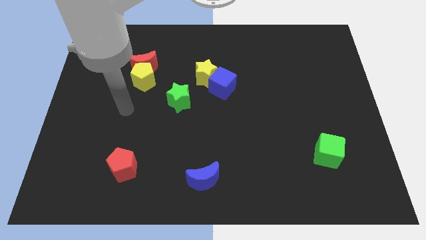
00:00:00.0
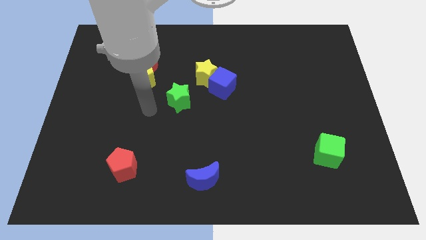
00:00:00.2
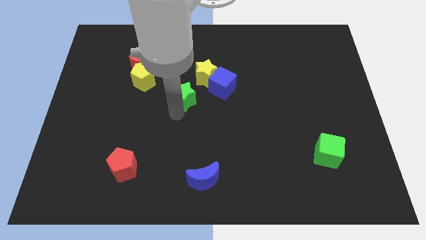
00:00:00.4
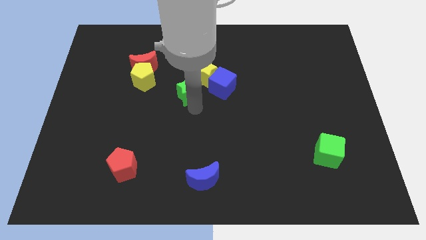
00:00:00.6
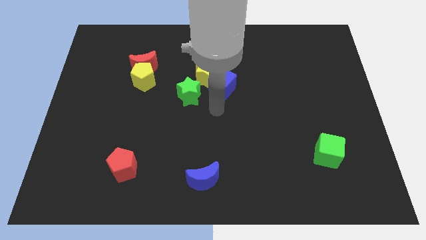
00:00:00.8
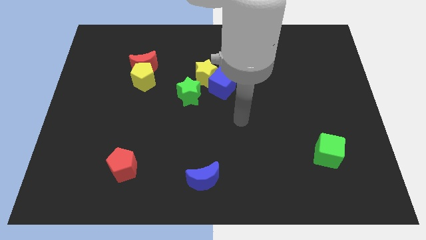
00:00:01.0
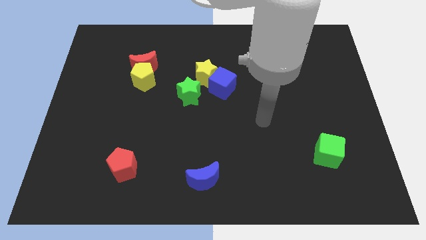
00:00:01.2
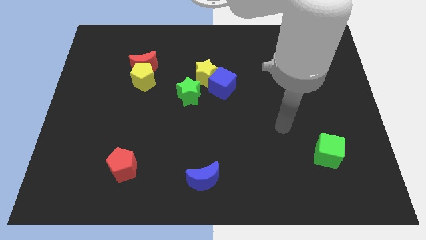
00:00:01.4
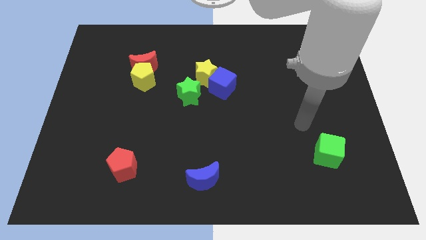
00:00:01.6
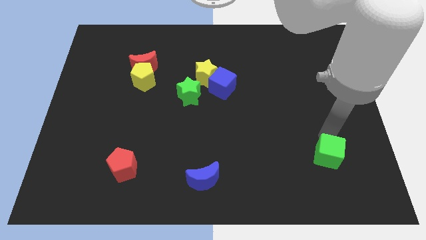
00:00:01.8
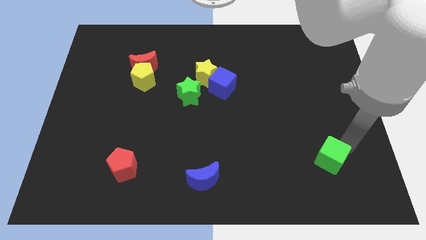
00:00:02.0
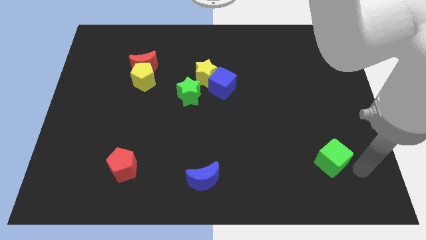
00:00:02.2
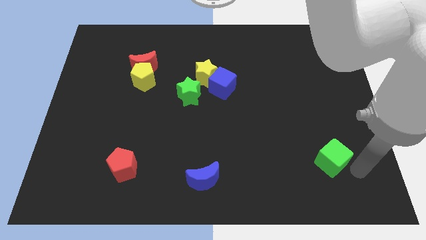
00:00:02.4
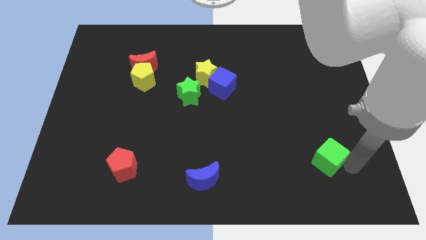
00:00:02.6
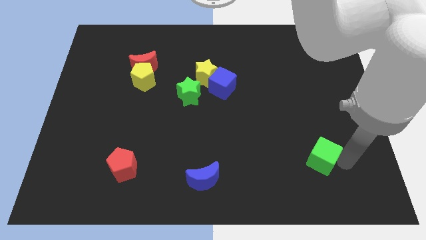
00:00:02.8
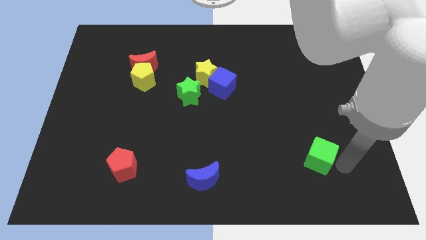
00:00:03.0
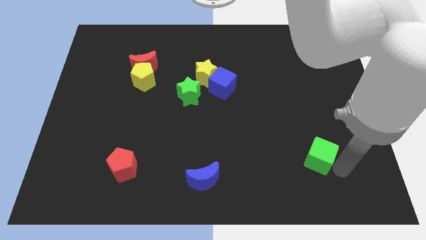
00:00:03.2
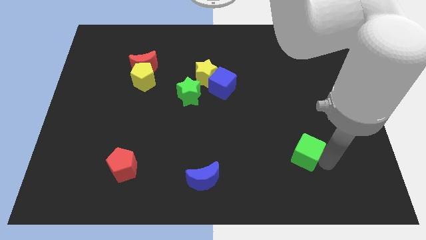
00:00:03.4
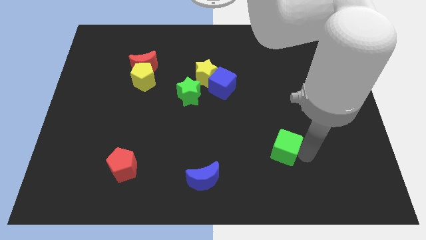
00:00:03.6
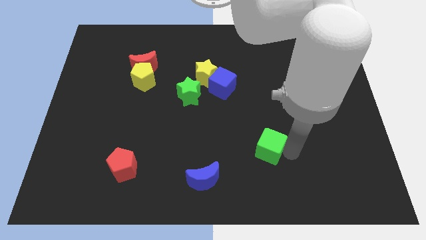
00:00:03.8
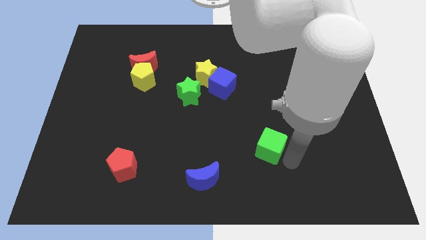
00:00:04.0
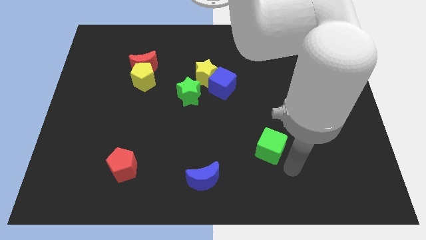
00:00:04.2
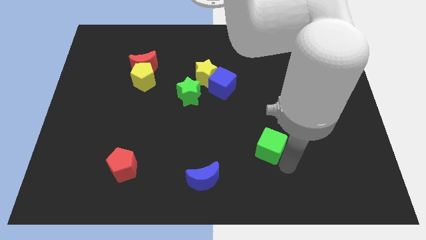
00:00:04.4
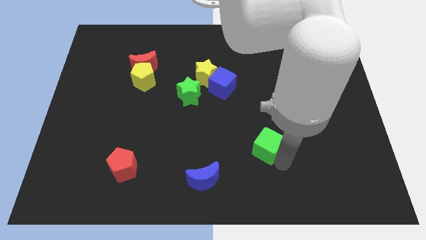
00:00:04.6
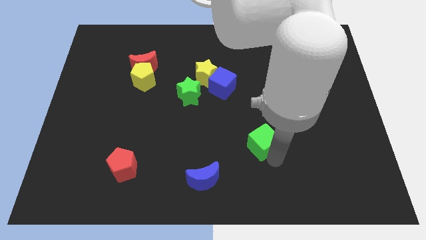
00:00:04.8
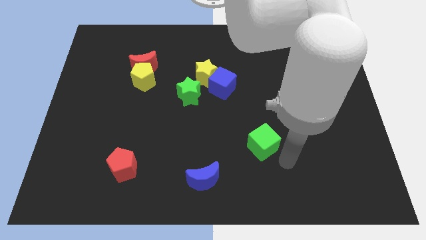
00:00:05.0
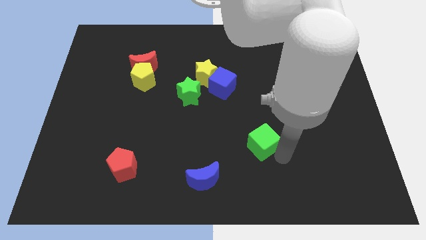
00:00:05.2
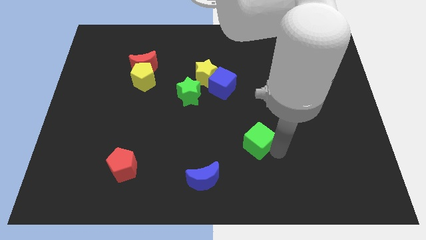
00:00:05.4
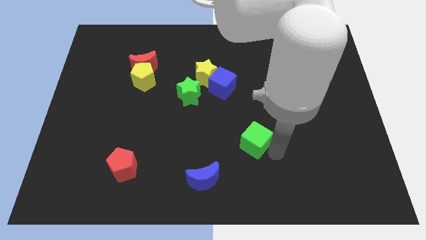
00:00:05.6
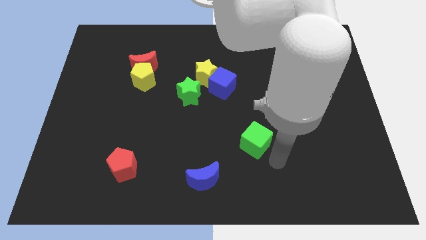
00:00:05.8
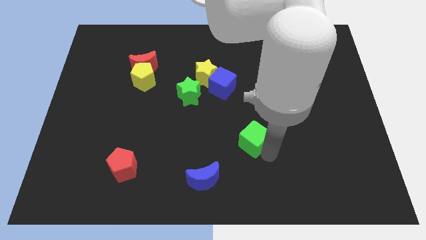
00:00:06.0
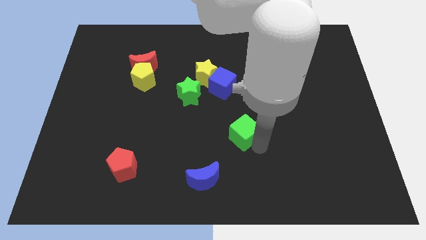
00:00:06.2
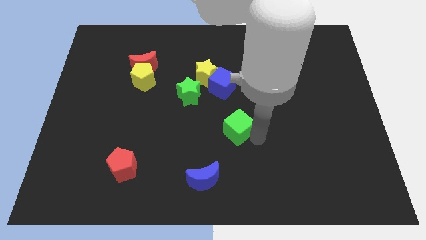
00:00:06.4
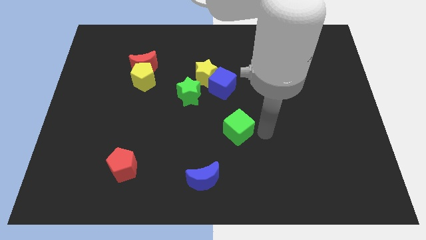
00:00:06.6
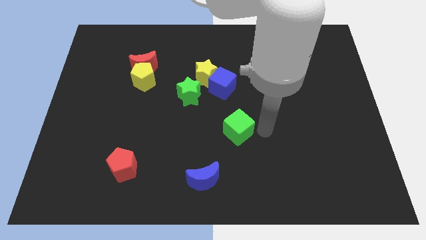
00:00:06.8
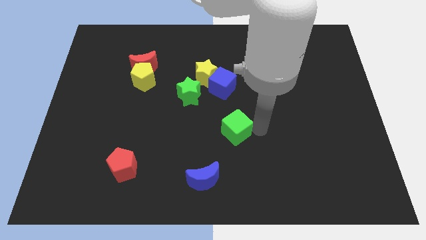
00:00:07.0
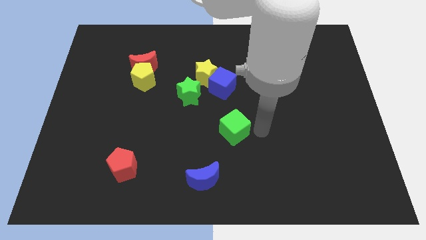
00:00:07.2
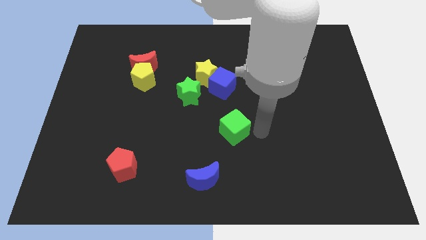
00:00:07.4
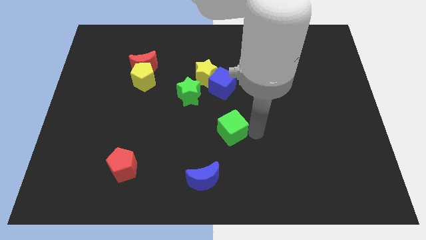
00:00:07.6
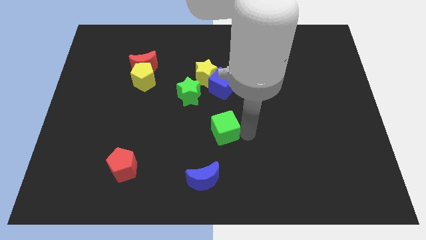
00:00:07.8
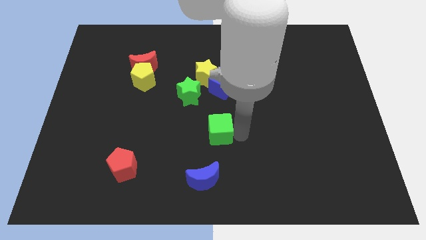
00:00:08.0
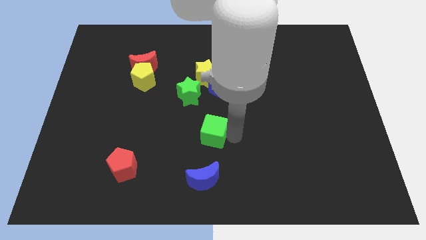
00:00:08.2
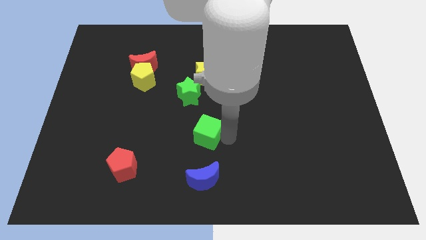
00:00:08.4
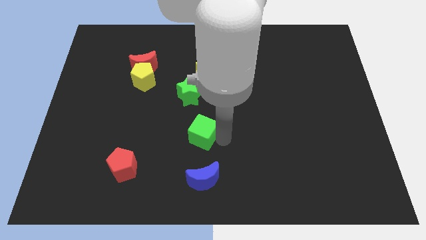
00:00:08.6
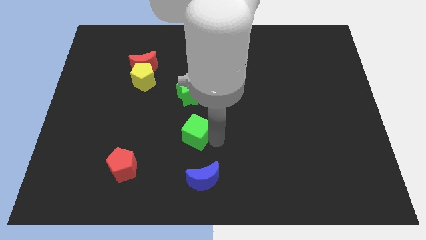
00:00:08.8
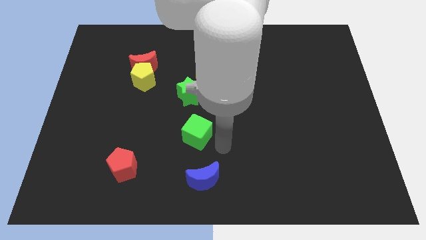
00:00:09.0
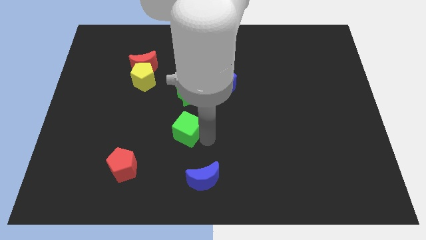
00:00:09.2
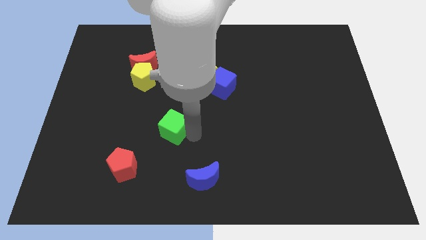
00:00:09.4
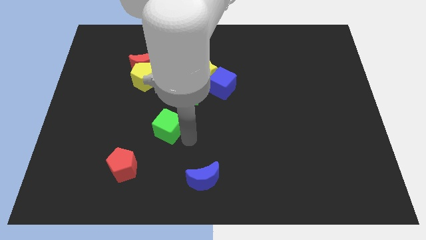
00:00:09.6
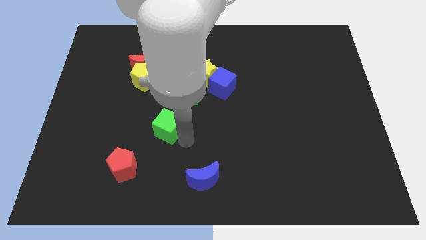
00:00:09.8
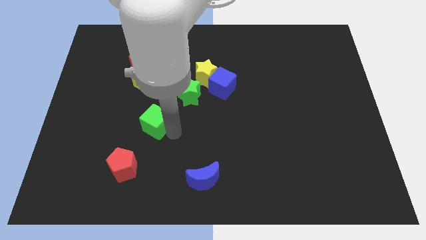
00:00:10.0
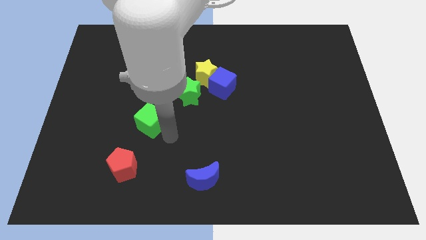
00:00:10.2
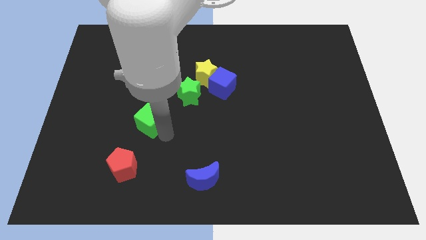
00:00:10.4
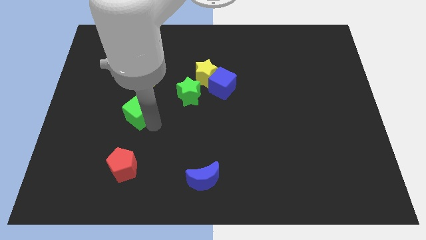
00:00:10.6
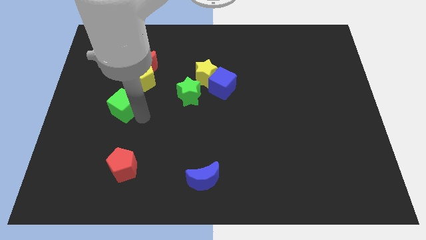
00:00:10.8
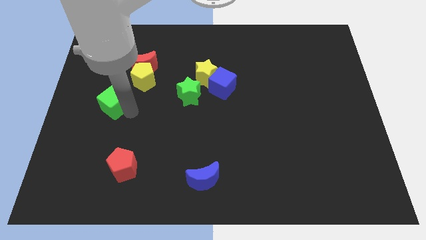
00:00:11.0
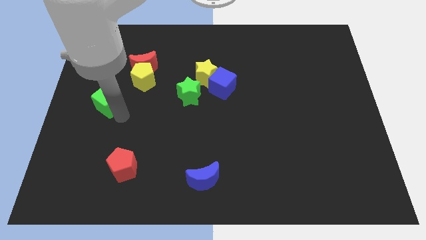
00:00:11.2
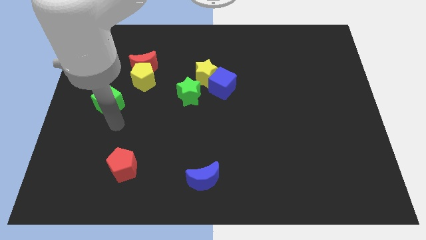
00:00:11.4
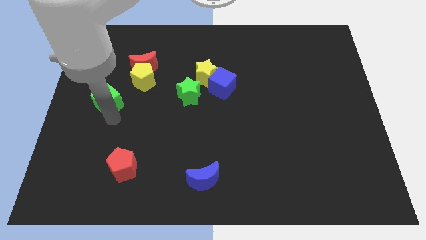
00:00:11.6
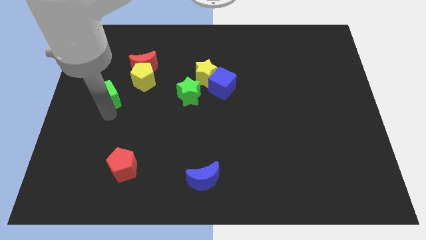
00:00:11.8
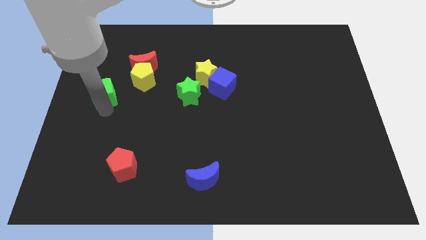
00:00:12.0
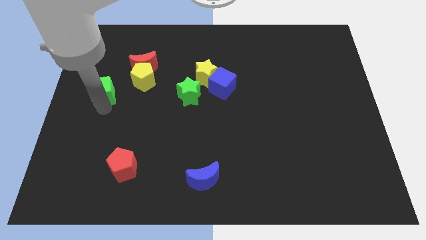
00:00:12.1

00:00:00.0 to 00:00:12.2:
push the green cube just left of the yellow pentagon

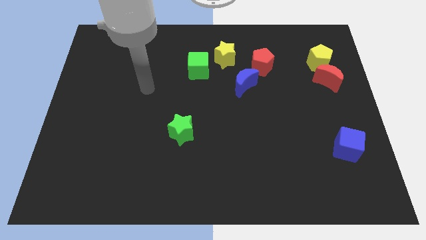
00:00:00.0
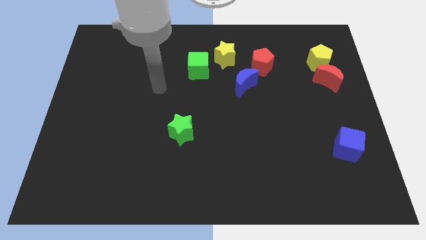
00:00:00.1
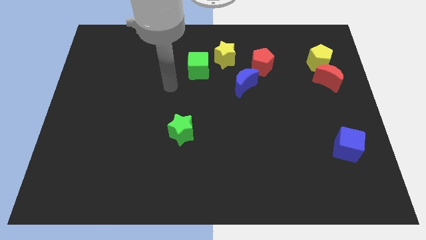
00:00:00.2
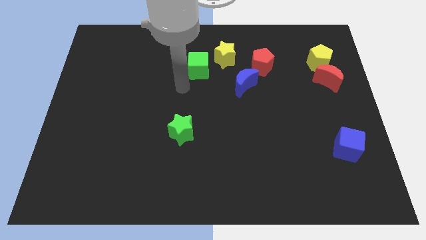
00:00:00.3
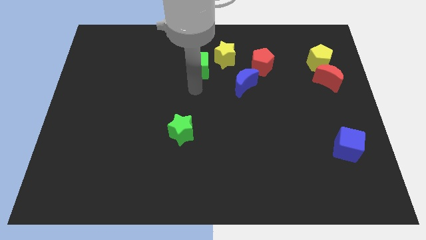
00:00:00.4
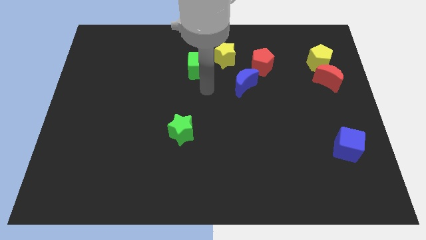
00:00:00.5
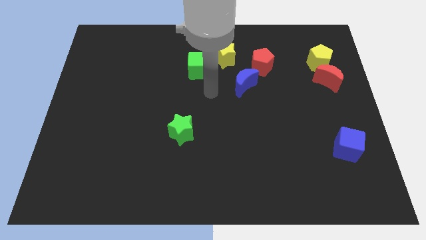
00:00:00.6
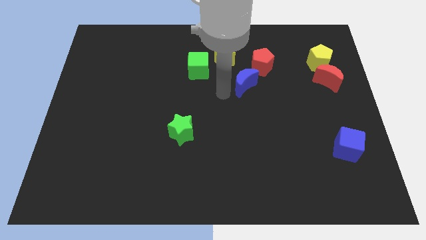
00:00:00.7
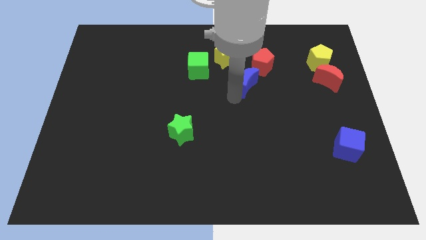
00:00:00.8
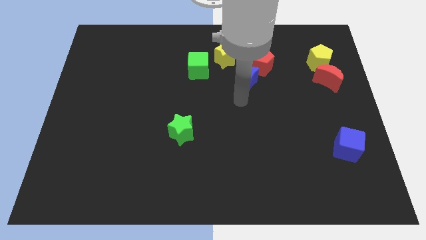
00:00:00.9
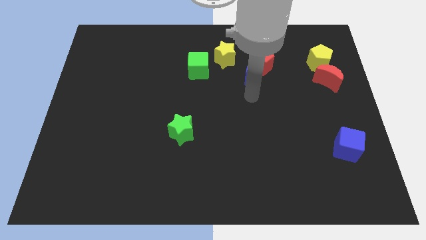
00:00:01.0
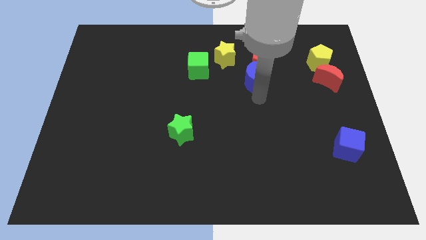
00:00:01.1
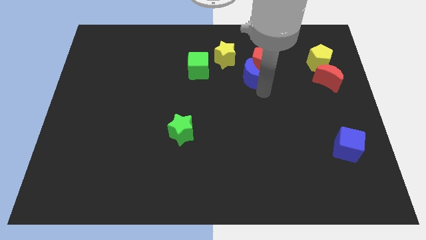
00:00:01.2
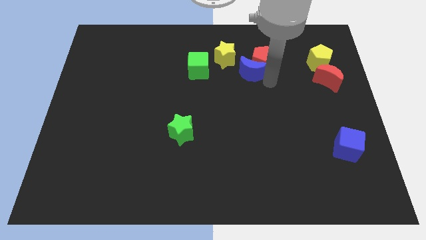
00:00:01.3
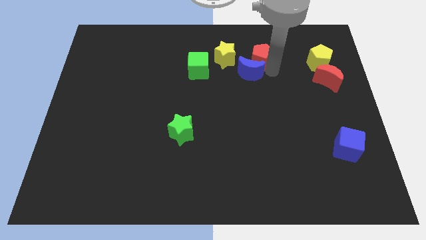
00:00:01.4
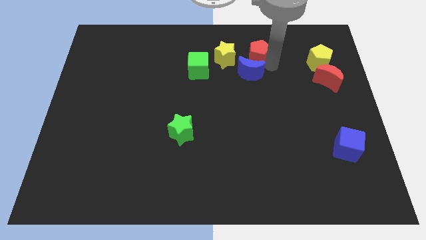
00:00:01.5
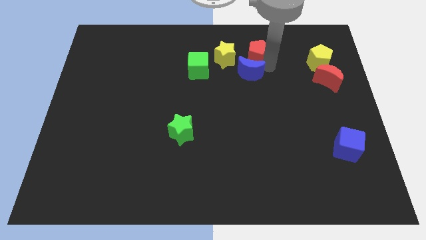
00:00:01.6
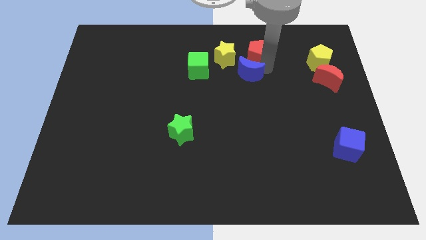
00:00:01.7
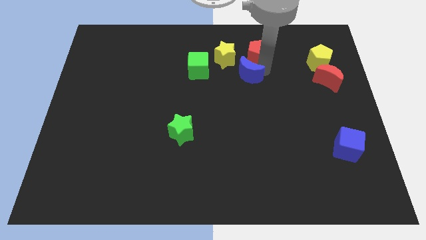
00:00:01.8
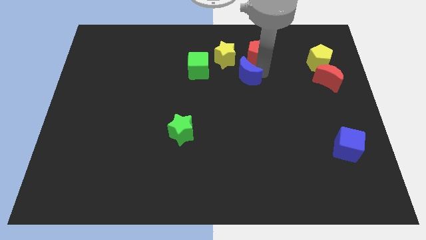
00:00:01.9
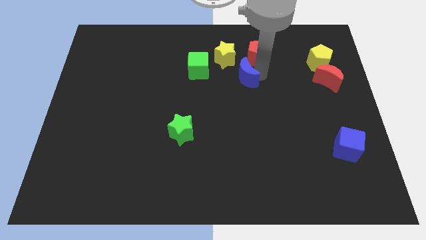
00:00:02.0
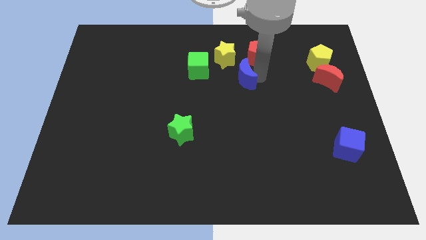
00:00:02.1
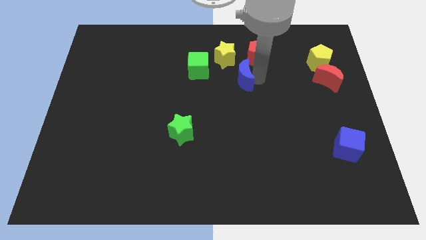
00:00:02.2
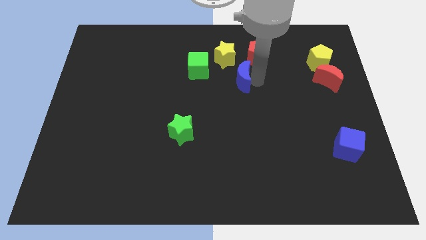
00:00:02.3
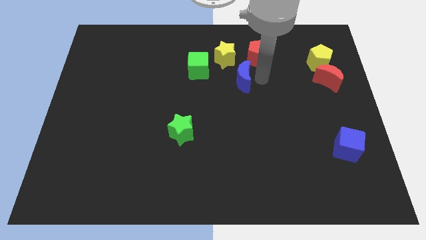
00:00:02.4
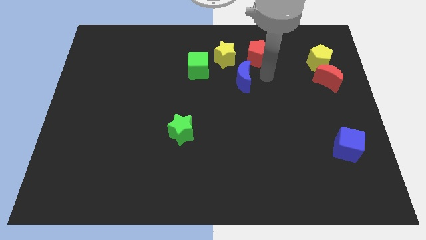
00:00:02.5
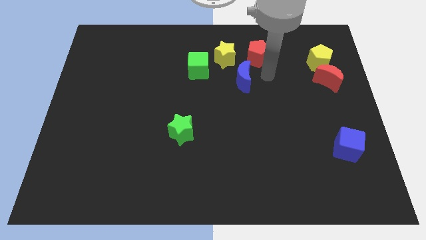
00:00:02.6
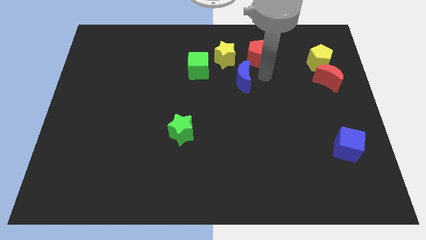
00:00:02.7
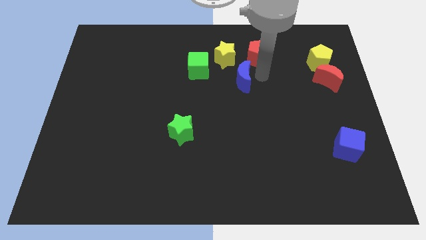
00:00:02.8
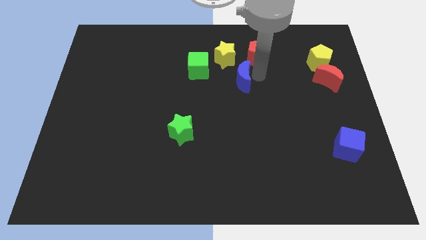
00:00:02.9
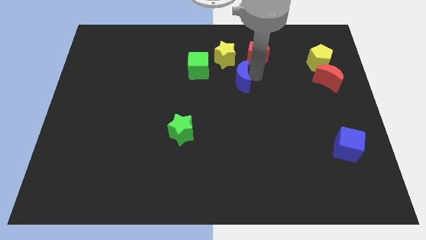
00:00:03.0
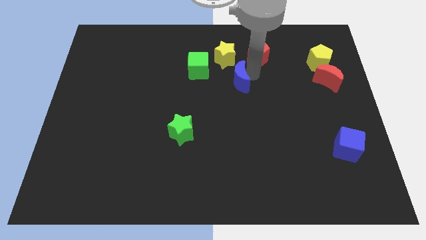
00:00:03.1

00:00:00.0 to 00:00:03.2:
put the blue moon diagonally down and to the right of the green cube
